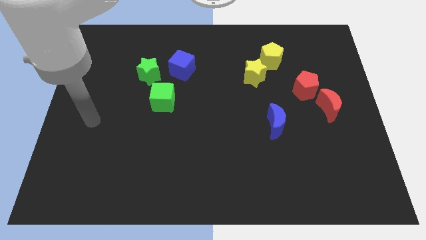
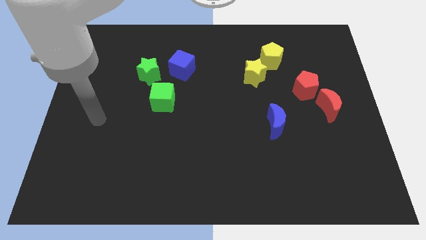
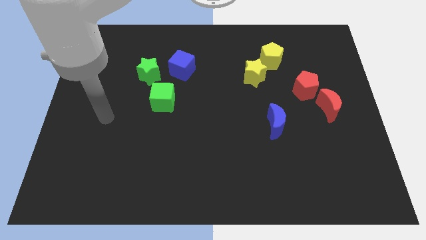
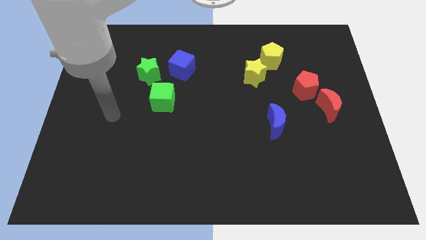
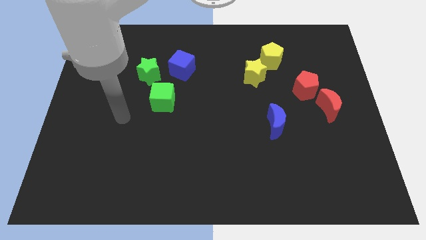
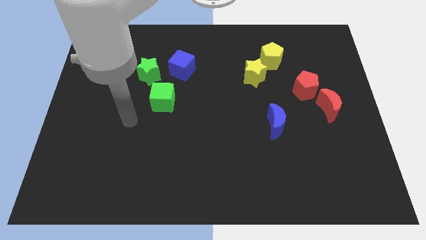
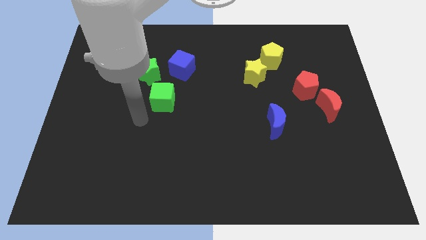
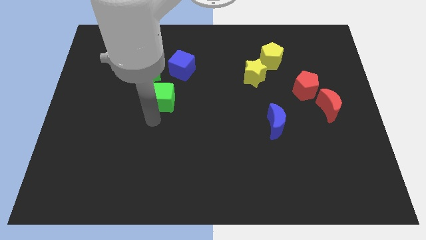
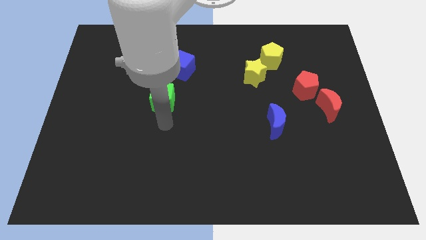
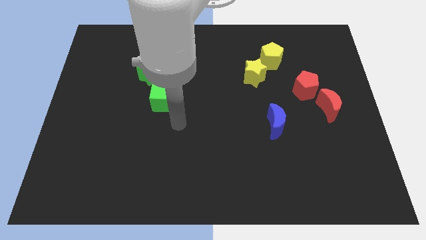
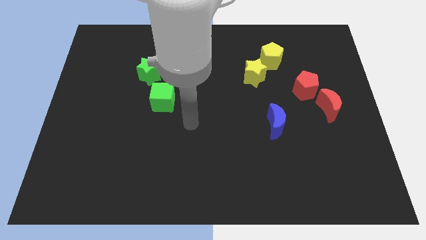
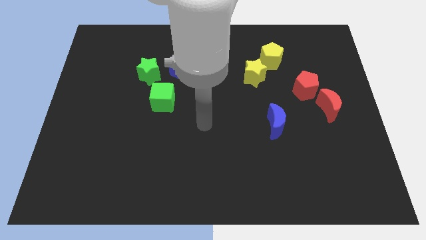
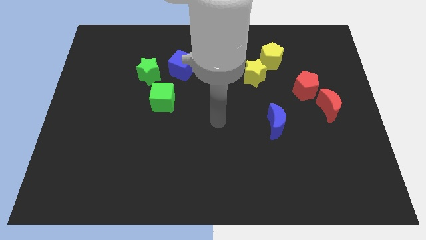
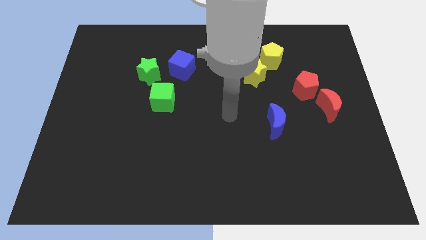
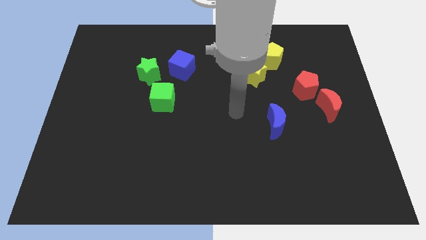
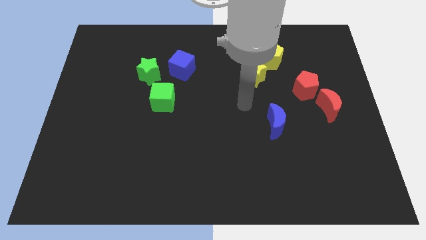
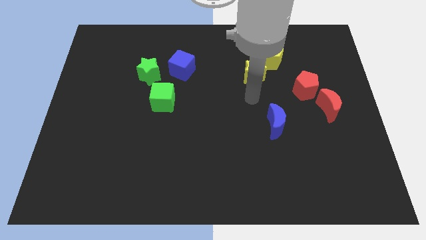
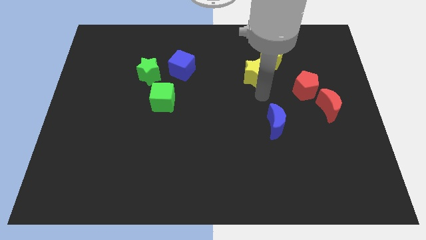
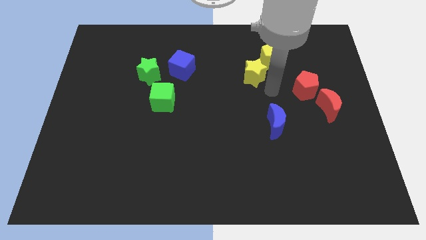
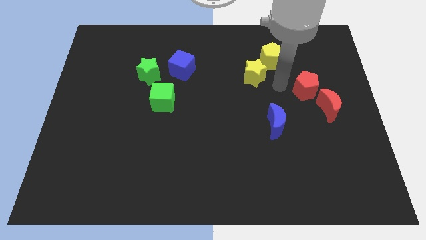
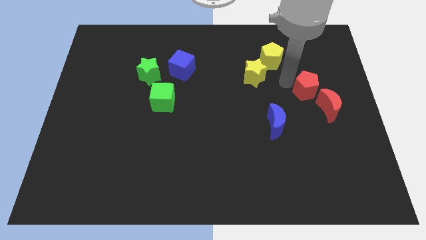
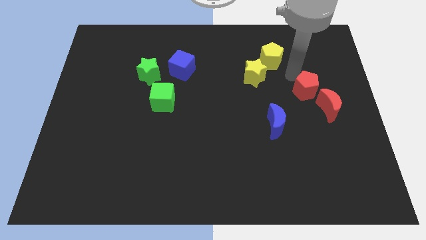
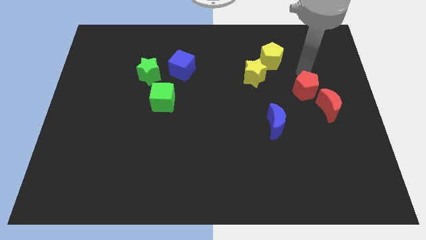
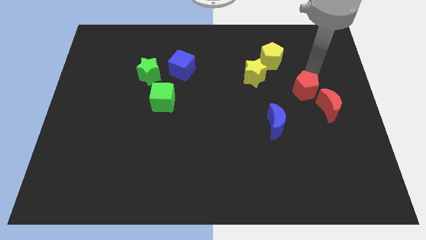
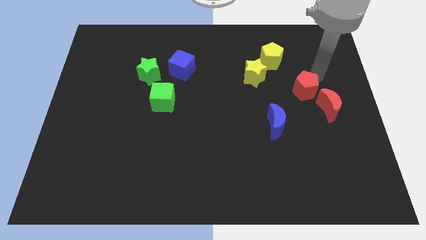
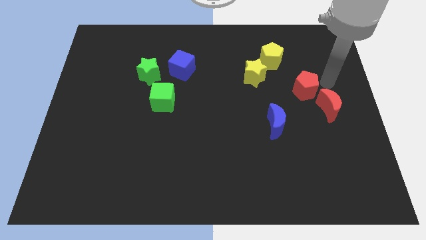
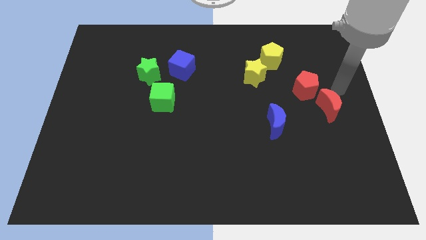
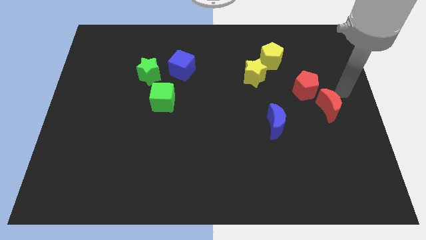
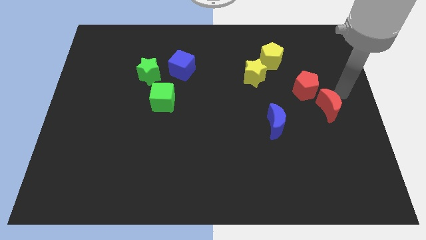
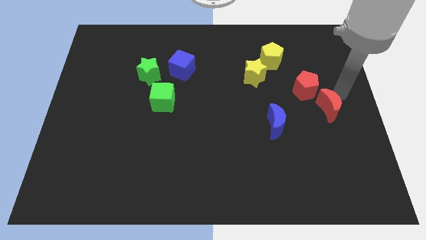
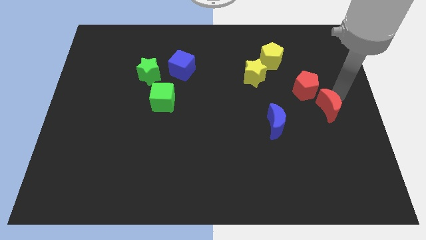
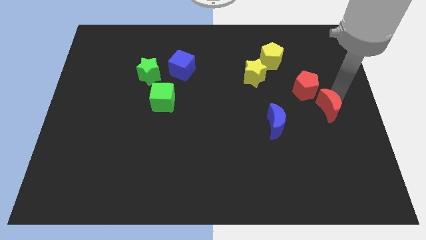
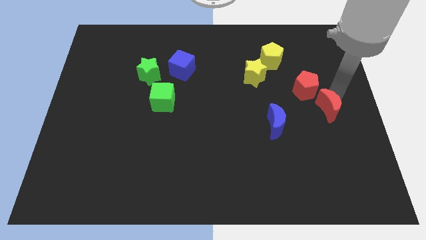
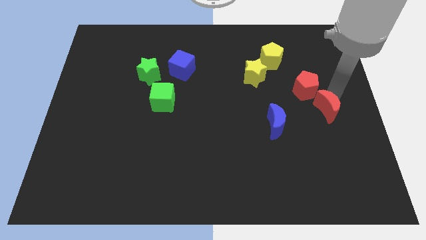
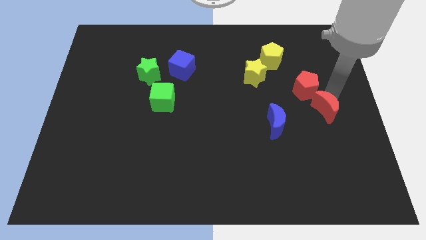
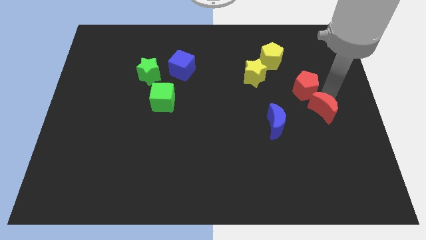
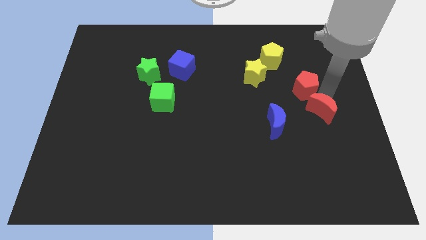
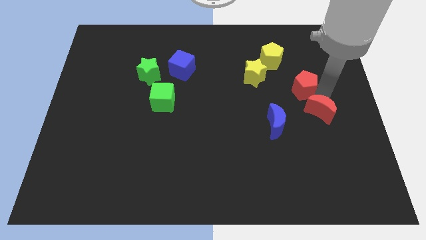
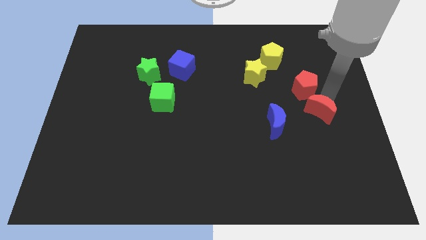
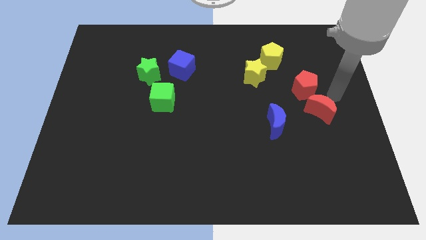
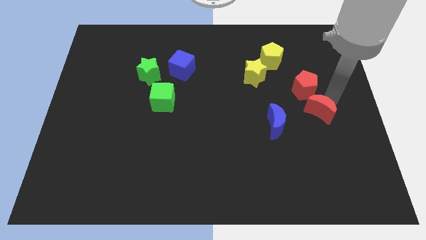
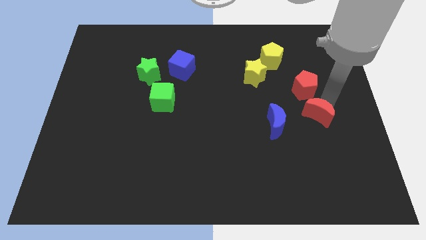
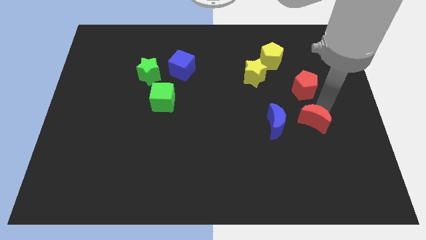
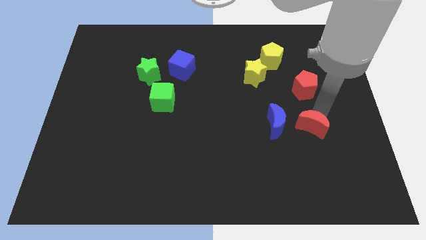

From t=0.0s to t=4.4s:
push the red moon a bit down and left

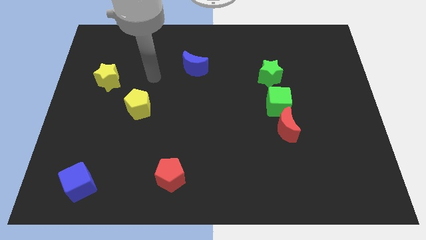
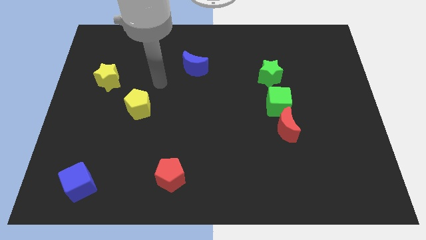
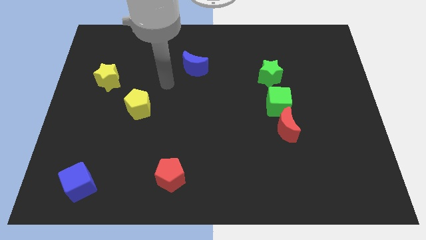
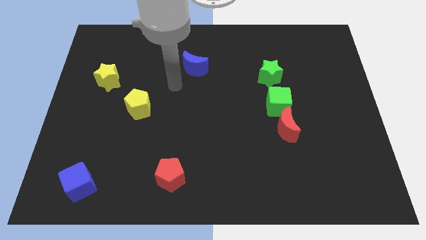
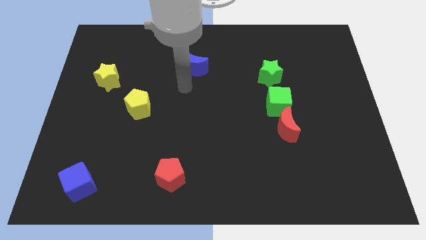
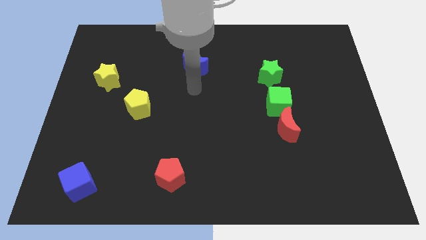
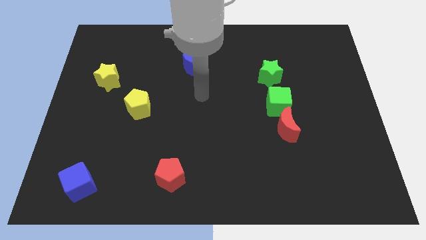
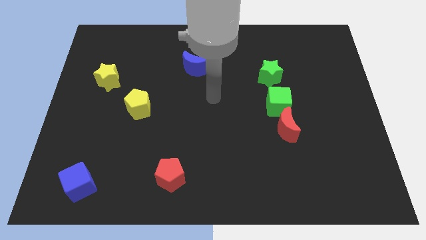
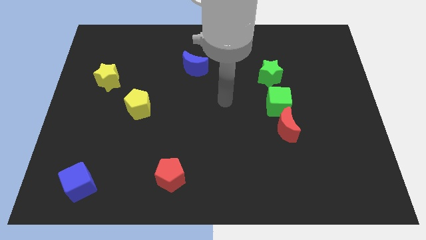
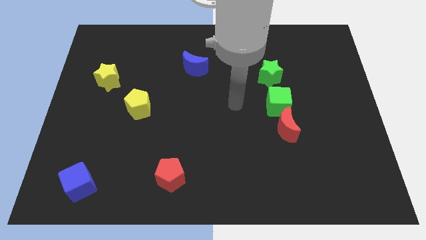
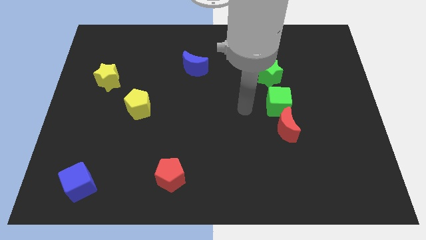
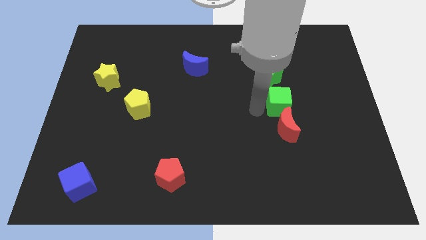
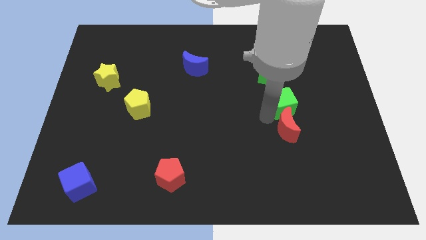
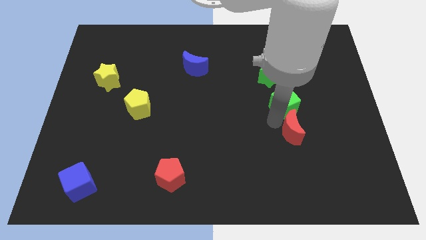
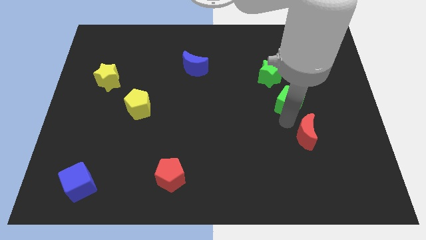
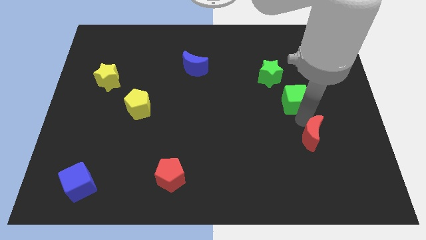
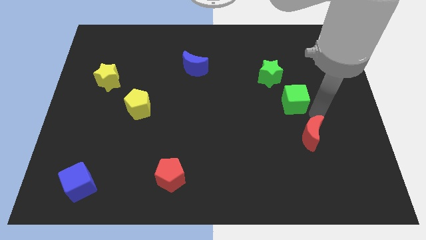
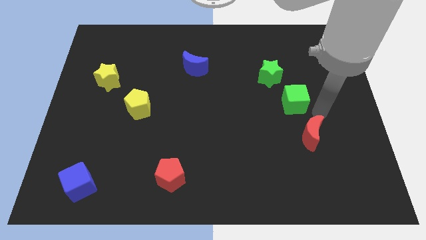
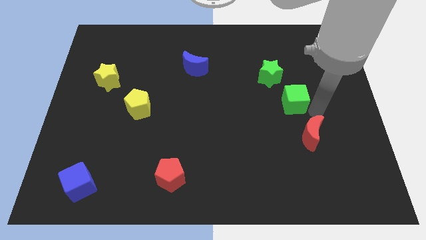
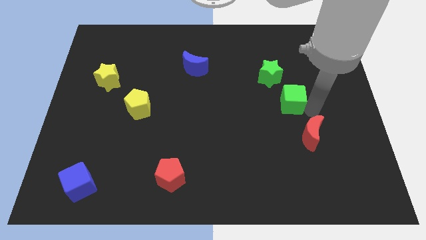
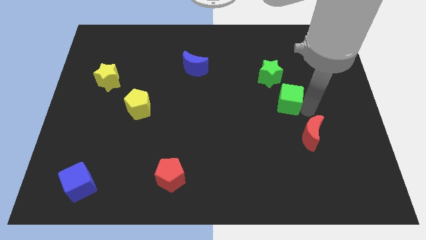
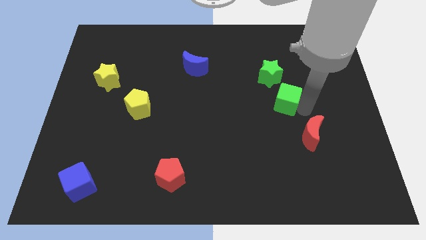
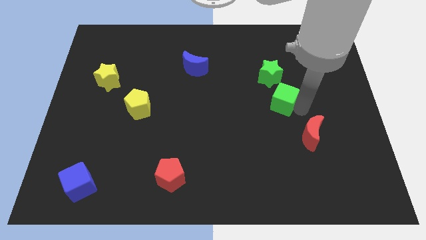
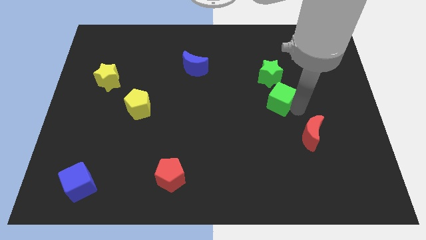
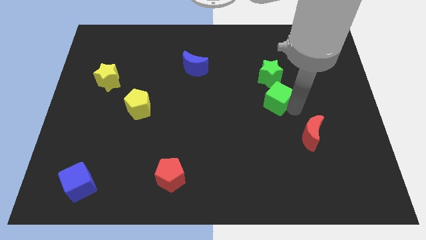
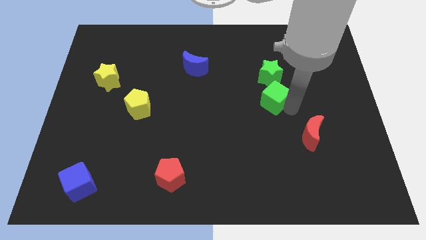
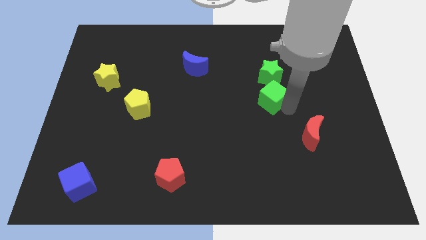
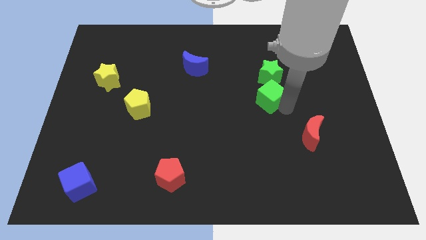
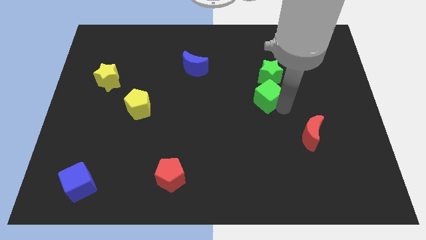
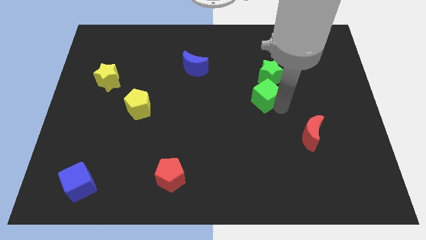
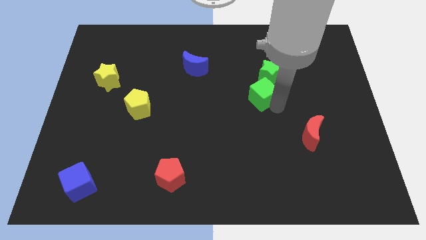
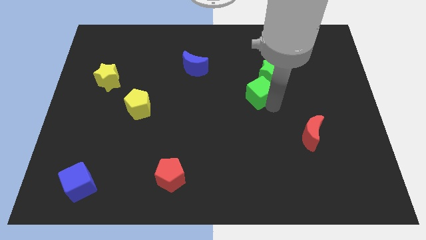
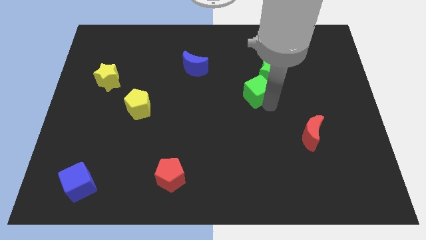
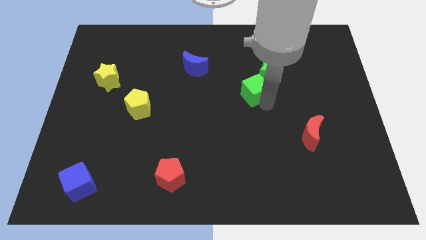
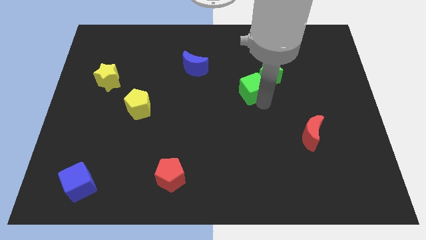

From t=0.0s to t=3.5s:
slightly push the green cube upwards and then to the left
